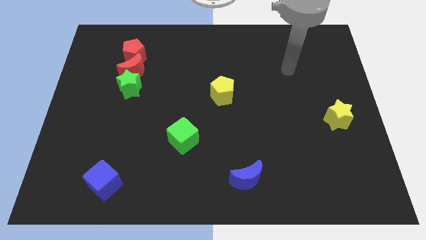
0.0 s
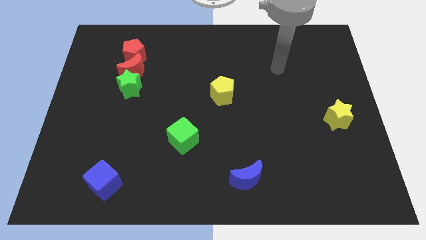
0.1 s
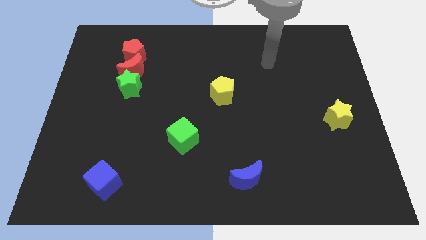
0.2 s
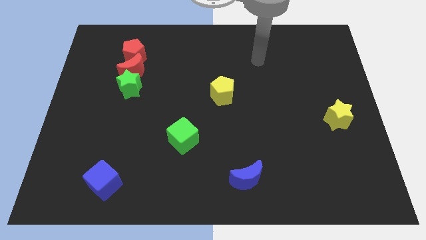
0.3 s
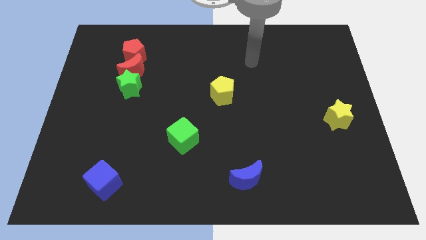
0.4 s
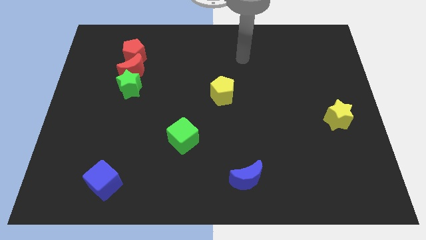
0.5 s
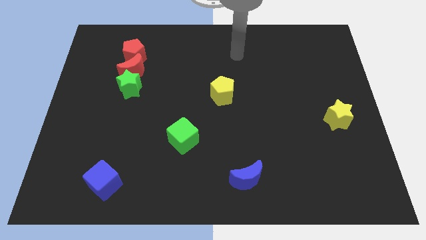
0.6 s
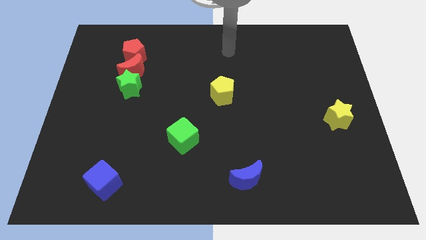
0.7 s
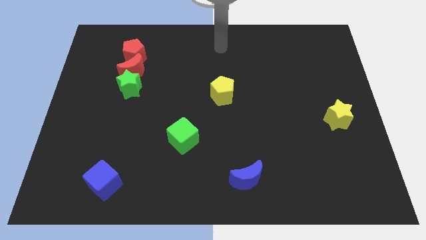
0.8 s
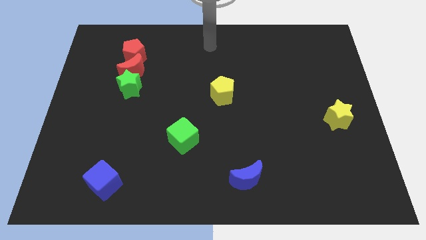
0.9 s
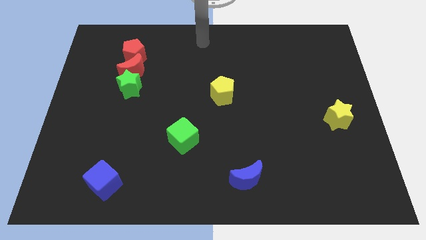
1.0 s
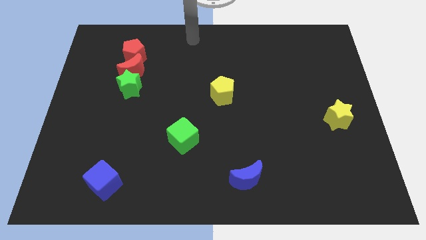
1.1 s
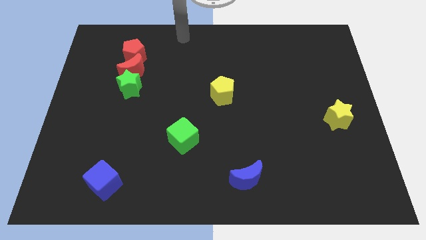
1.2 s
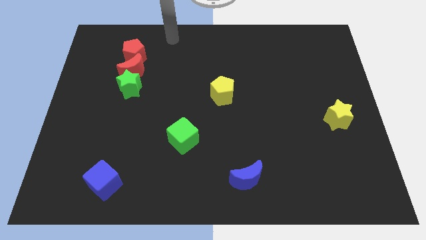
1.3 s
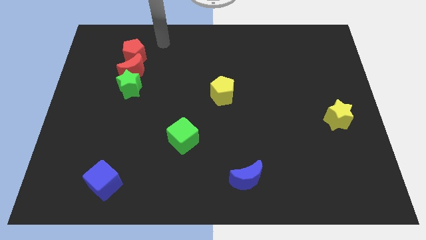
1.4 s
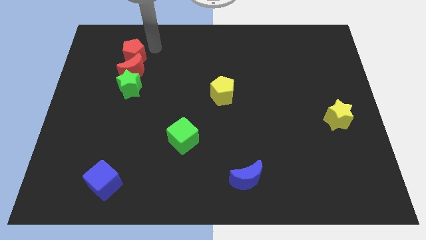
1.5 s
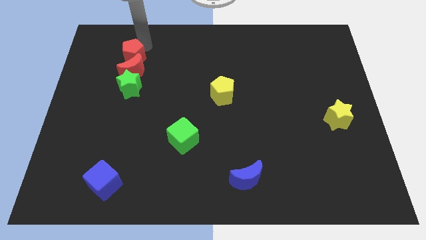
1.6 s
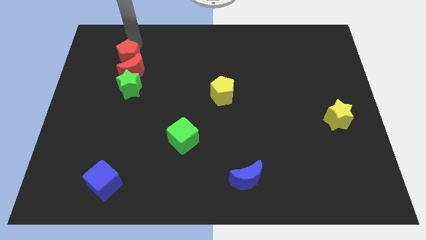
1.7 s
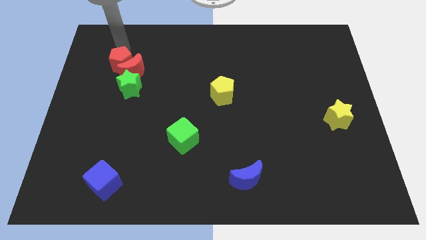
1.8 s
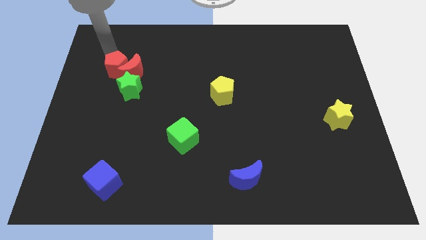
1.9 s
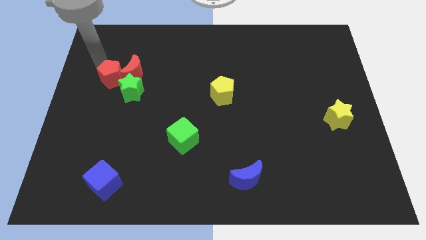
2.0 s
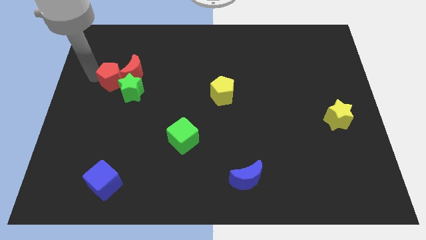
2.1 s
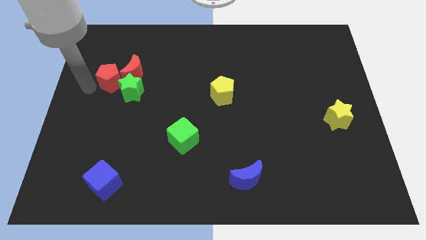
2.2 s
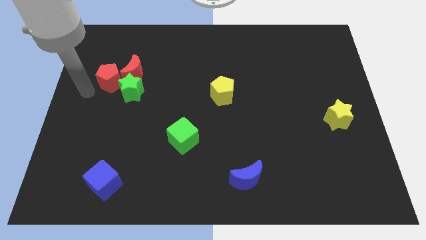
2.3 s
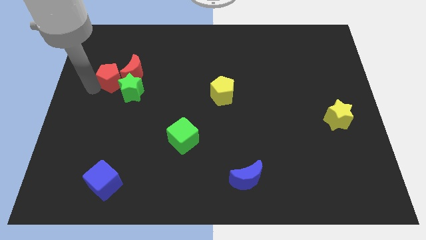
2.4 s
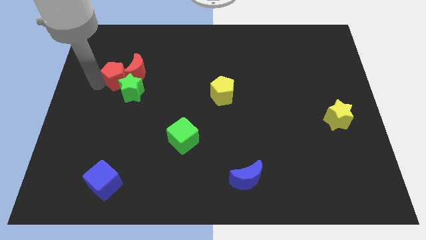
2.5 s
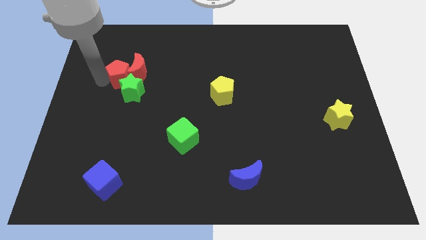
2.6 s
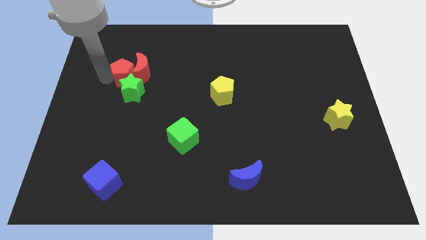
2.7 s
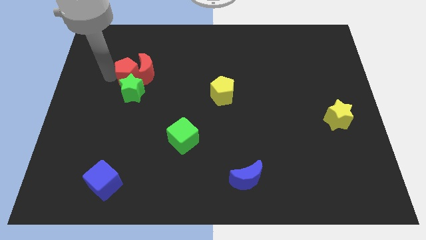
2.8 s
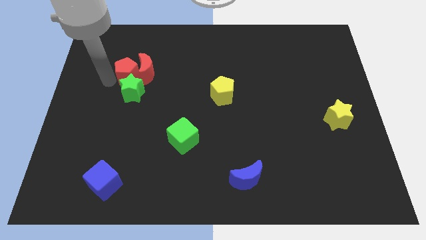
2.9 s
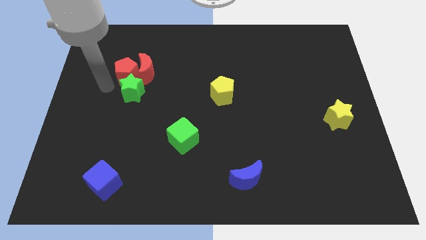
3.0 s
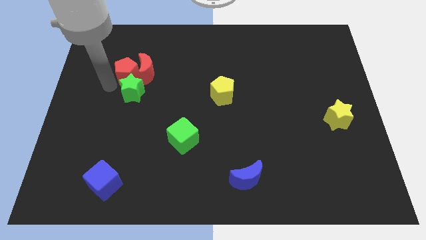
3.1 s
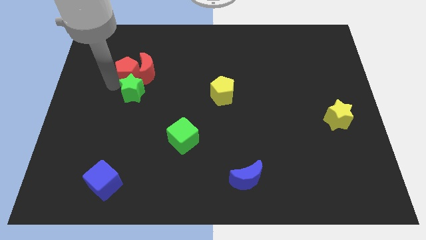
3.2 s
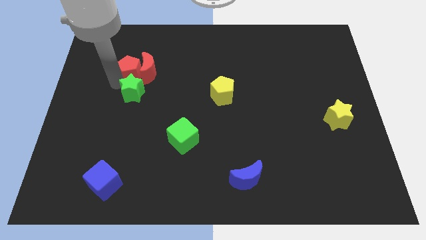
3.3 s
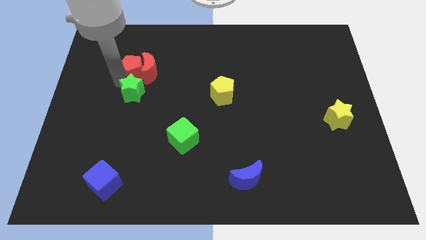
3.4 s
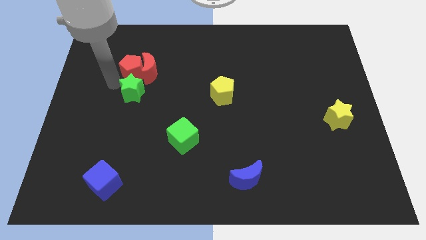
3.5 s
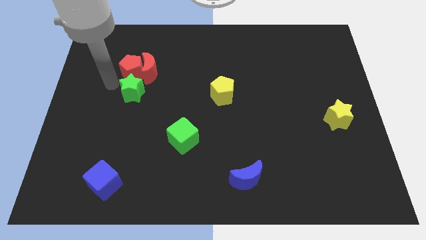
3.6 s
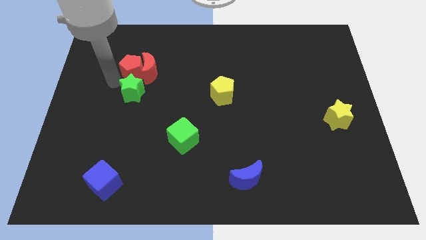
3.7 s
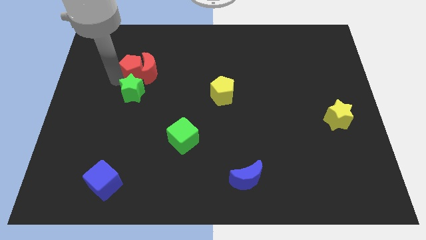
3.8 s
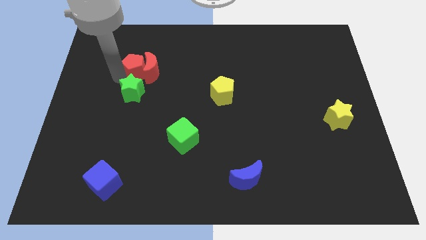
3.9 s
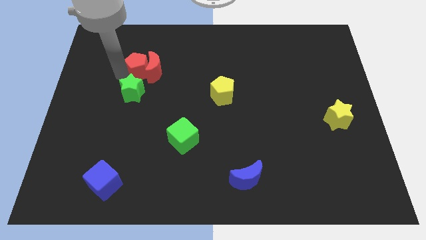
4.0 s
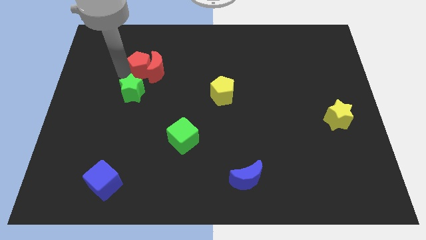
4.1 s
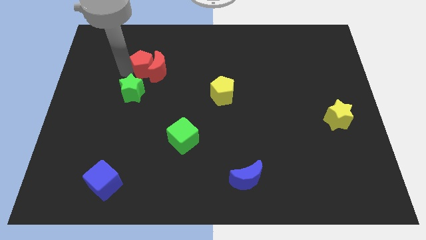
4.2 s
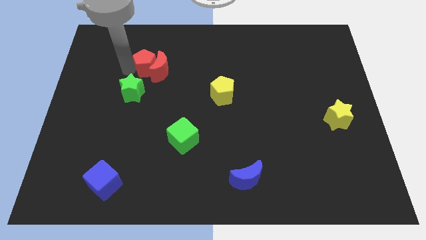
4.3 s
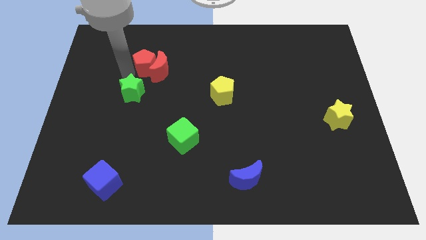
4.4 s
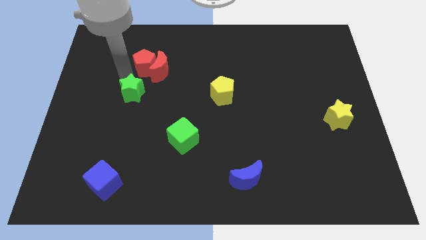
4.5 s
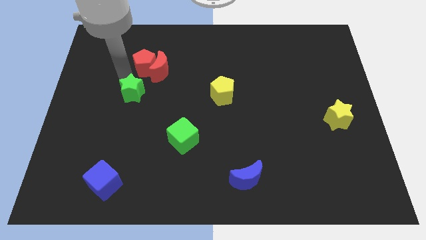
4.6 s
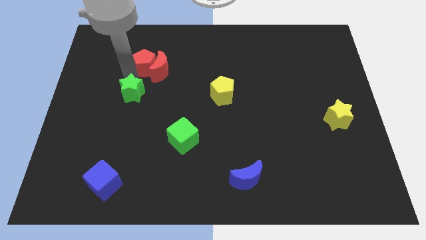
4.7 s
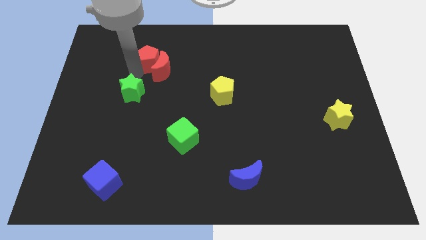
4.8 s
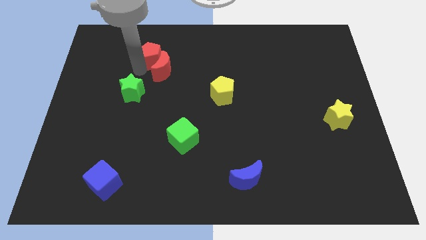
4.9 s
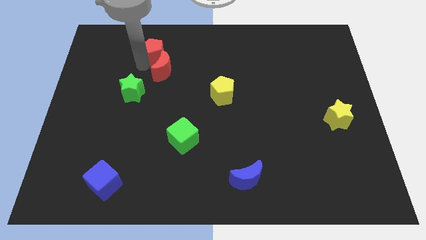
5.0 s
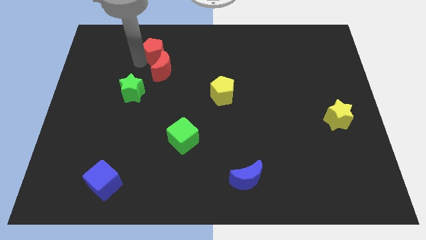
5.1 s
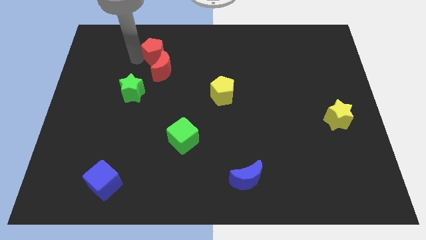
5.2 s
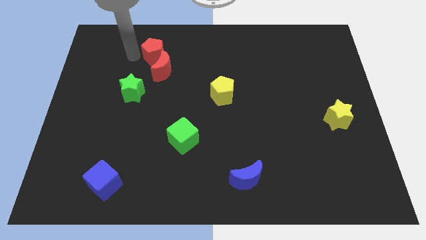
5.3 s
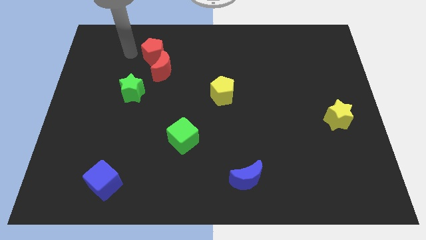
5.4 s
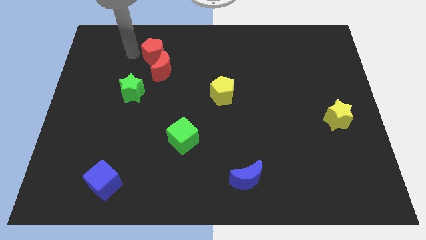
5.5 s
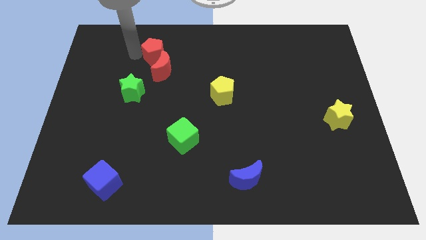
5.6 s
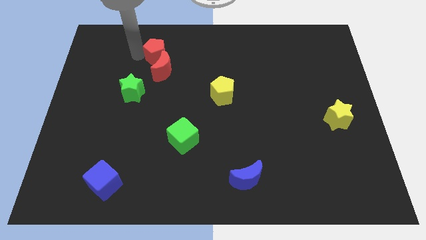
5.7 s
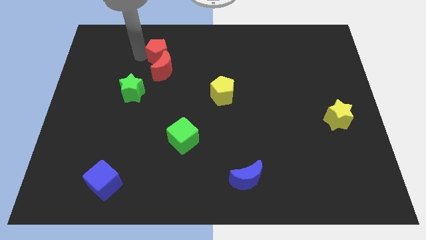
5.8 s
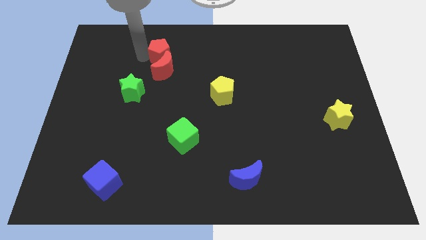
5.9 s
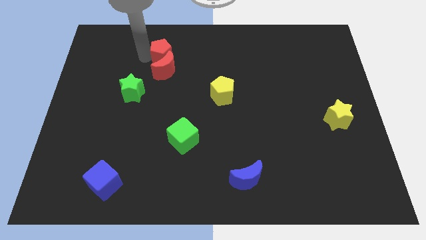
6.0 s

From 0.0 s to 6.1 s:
push the red pentagon somewhat to the right

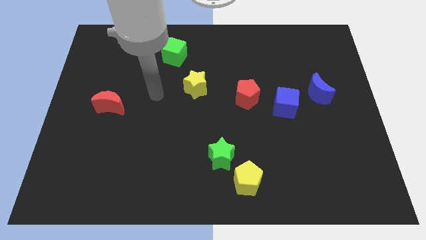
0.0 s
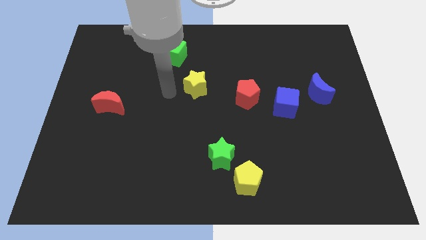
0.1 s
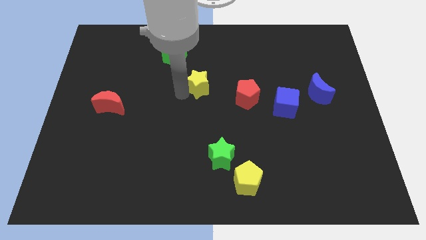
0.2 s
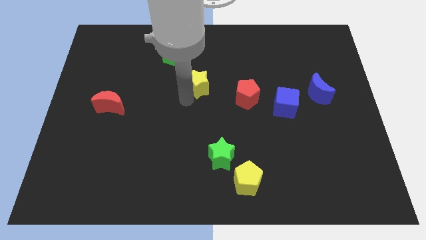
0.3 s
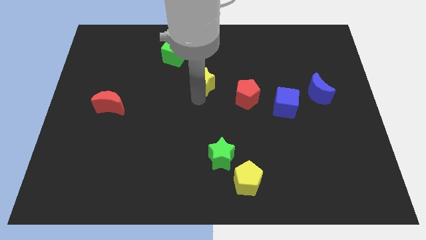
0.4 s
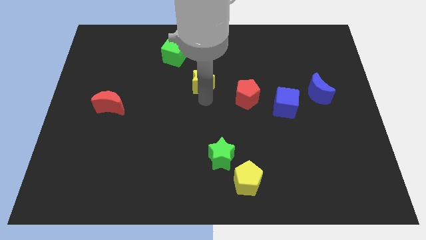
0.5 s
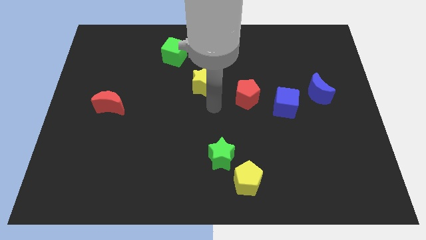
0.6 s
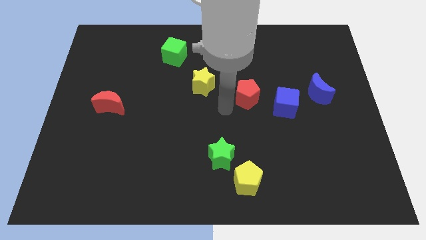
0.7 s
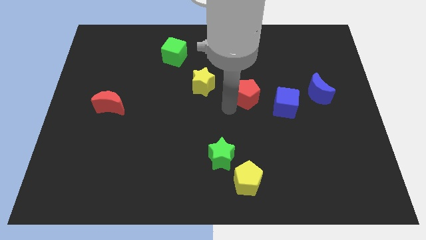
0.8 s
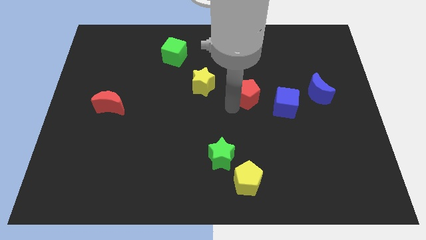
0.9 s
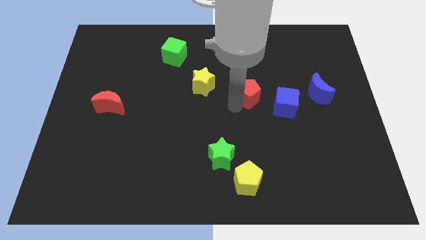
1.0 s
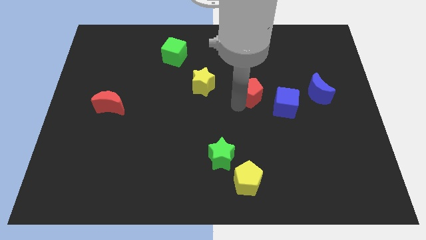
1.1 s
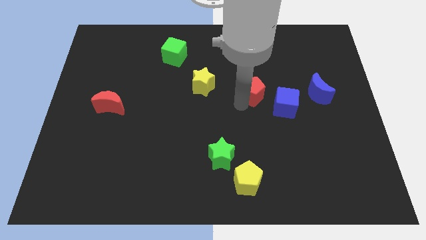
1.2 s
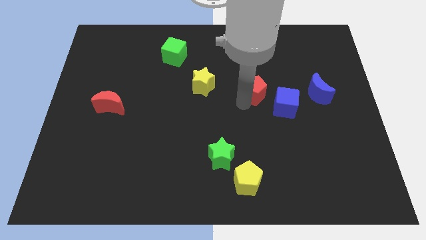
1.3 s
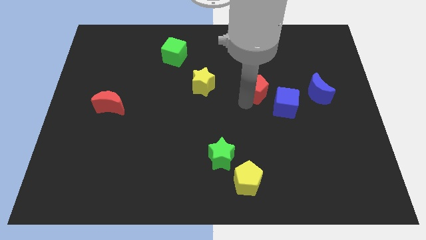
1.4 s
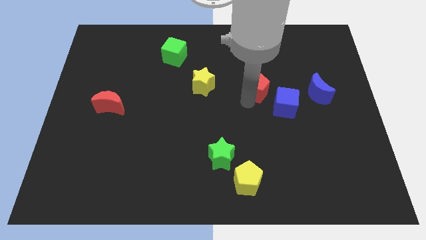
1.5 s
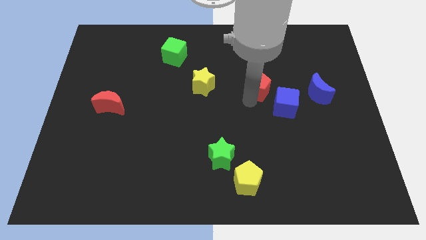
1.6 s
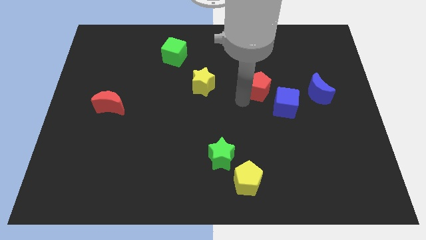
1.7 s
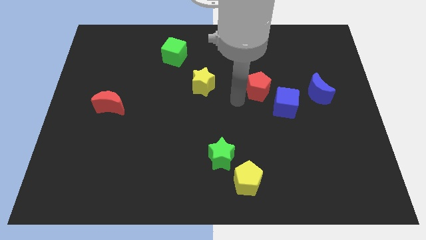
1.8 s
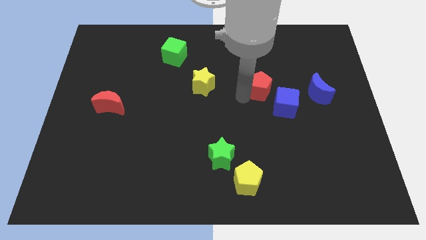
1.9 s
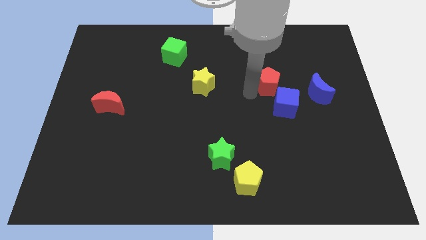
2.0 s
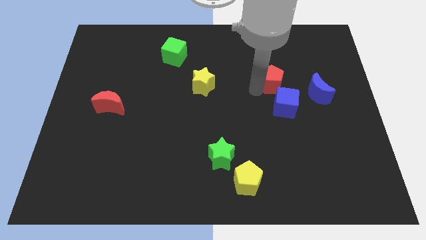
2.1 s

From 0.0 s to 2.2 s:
slightly move the red pentagon up and to the right diagonally

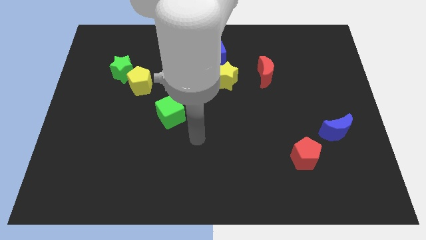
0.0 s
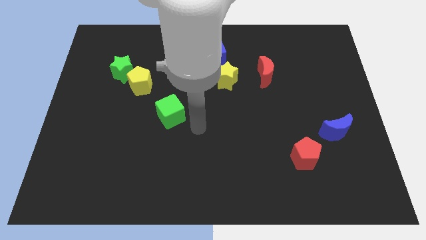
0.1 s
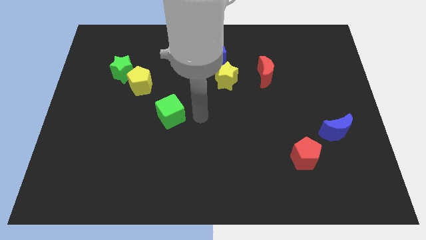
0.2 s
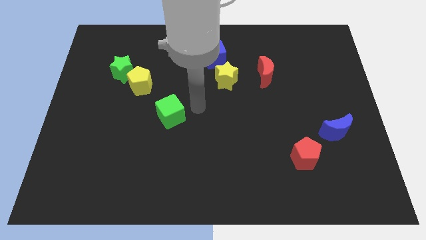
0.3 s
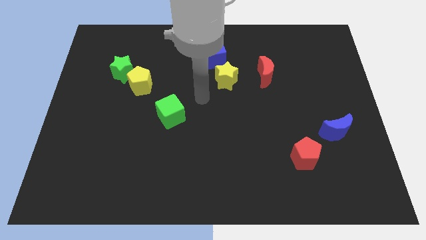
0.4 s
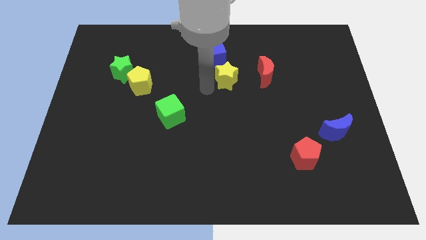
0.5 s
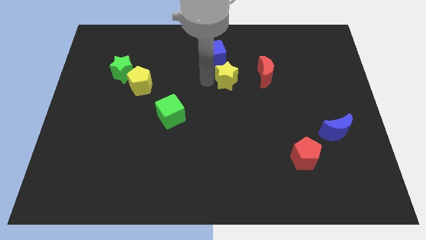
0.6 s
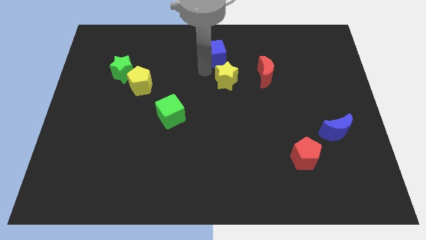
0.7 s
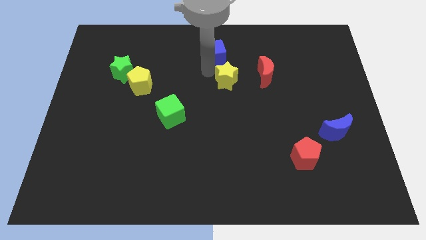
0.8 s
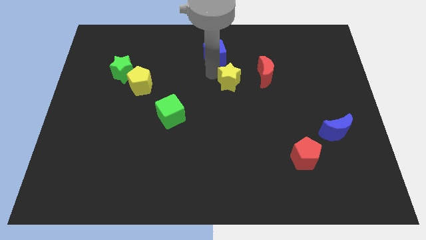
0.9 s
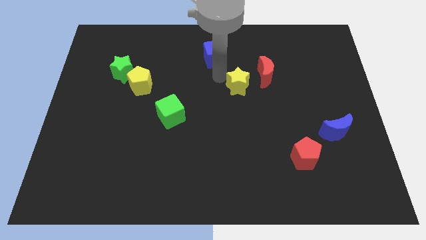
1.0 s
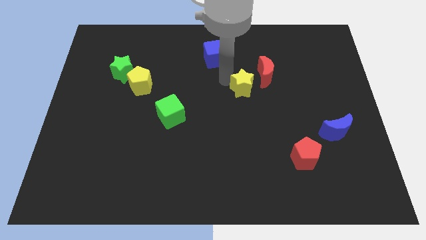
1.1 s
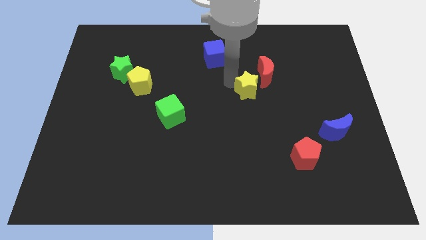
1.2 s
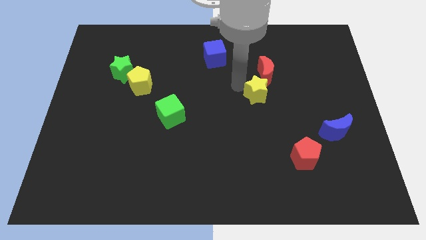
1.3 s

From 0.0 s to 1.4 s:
slightly slide the yellow star down and to the right diagonally
